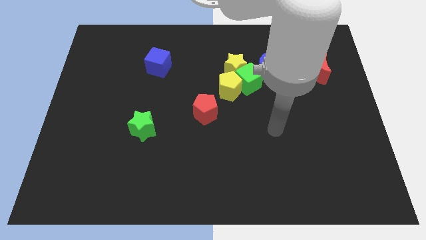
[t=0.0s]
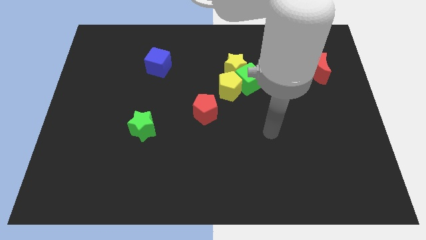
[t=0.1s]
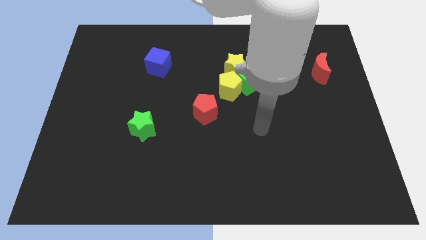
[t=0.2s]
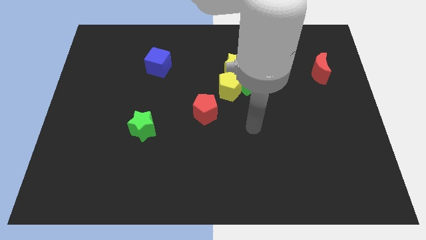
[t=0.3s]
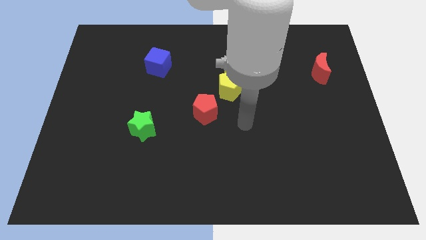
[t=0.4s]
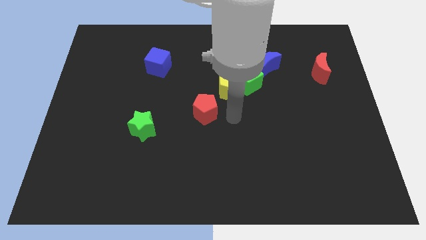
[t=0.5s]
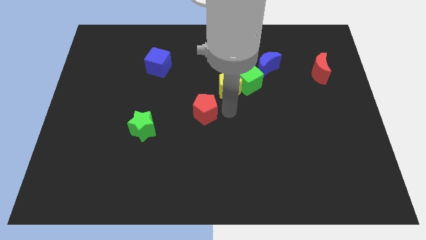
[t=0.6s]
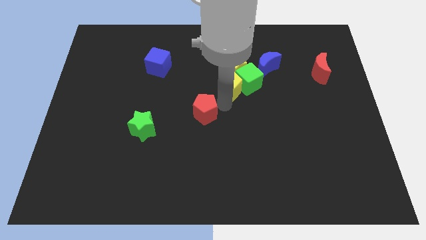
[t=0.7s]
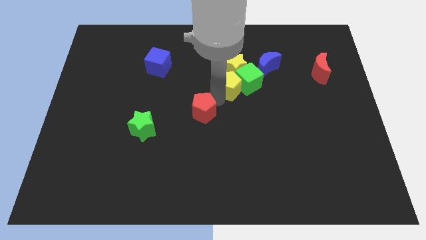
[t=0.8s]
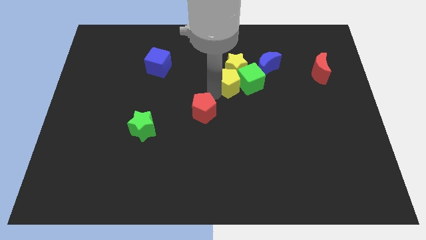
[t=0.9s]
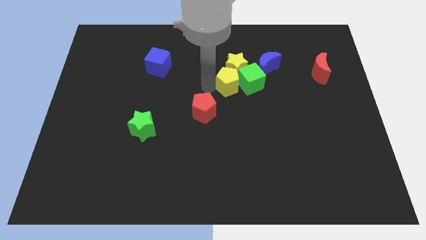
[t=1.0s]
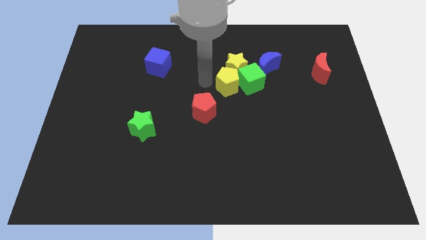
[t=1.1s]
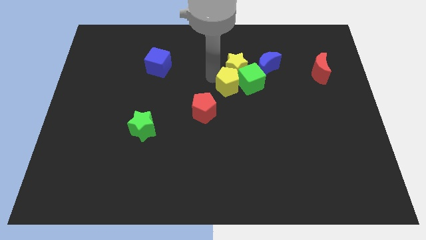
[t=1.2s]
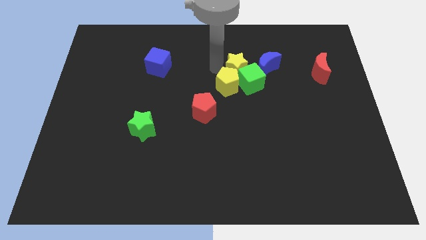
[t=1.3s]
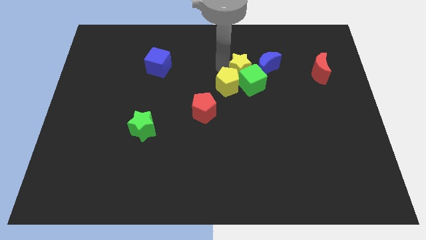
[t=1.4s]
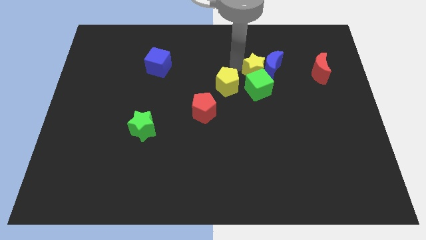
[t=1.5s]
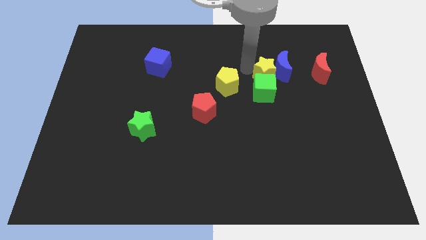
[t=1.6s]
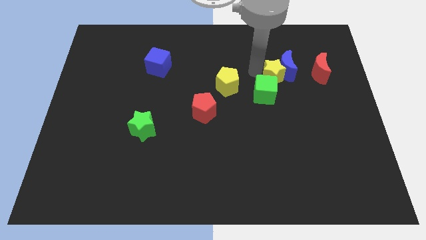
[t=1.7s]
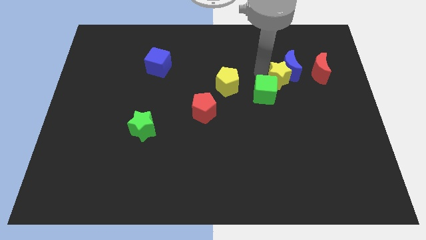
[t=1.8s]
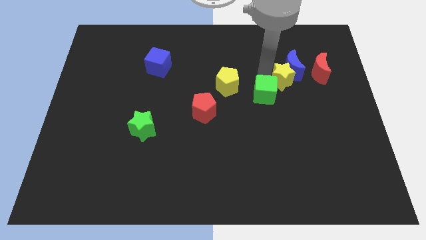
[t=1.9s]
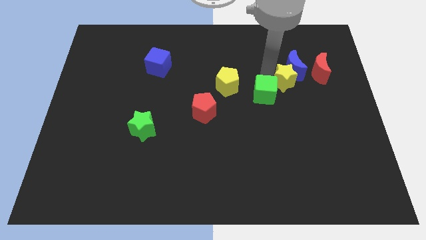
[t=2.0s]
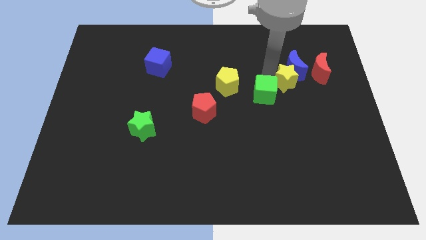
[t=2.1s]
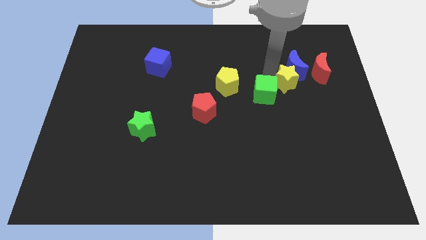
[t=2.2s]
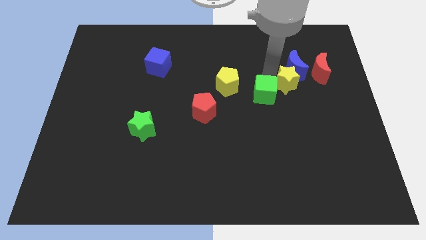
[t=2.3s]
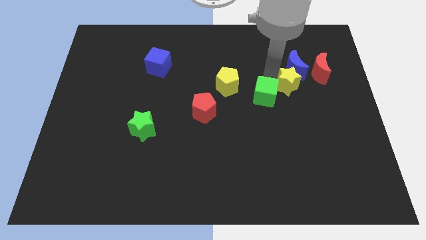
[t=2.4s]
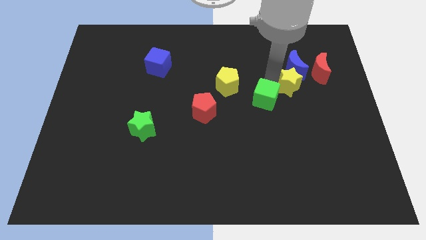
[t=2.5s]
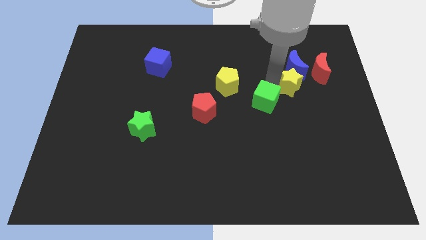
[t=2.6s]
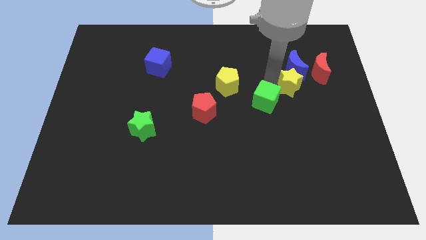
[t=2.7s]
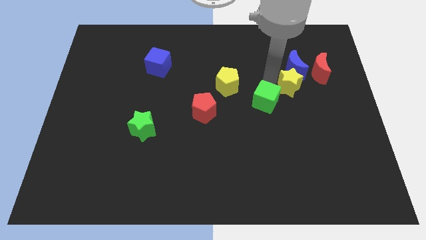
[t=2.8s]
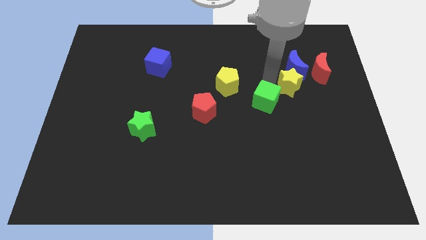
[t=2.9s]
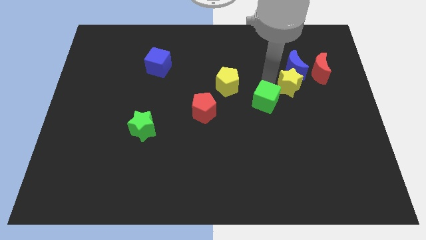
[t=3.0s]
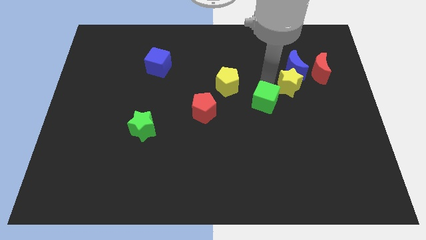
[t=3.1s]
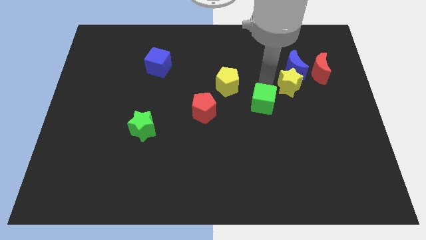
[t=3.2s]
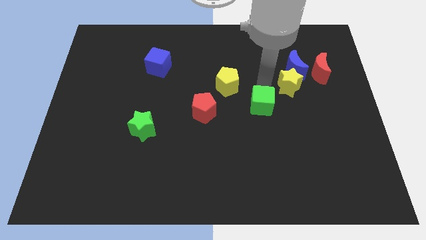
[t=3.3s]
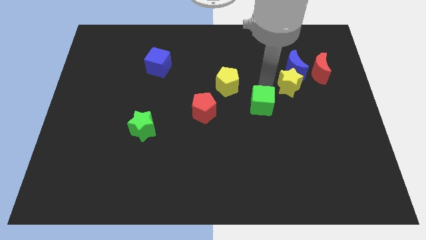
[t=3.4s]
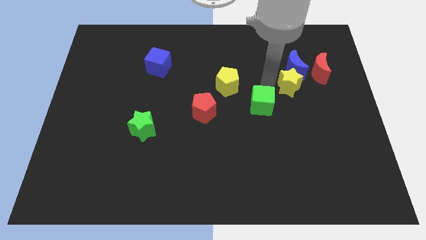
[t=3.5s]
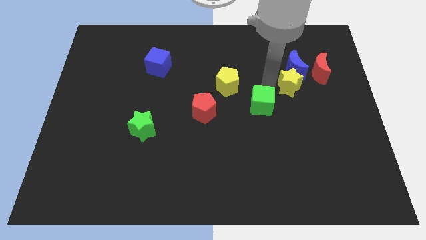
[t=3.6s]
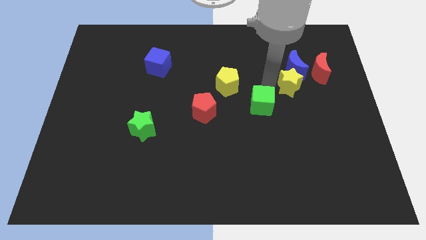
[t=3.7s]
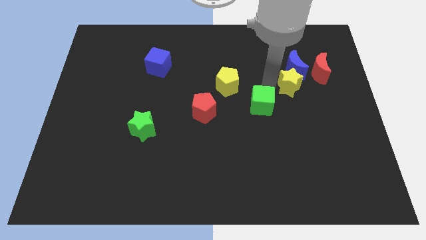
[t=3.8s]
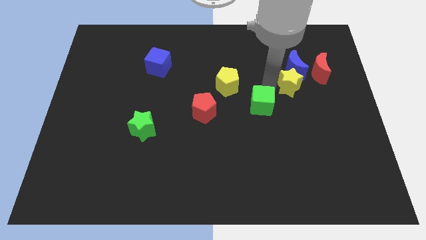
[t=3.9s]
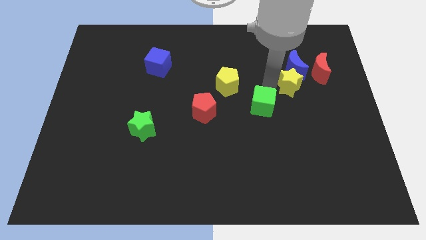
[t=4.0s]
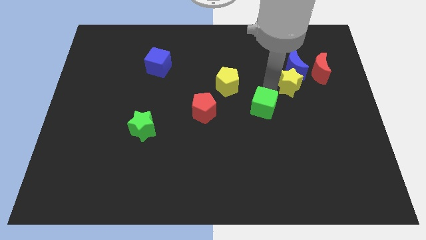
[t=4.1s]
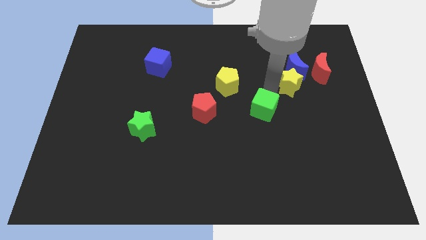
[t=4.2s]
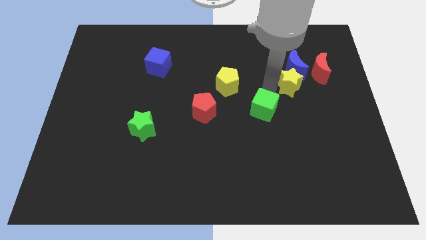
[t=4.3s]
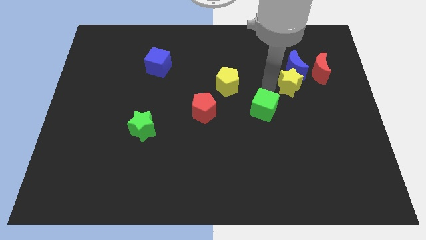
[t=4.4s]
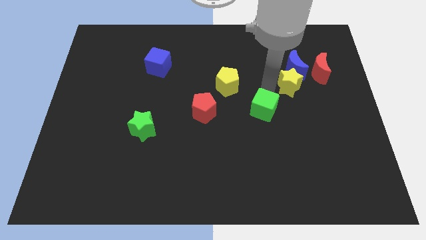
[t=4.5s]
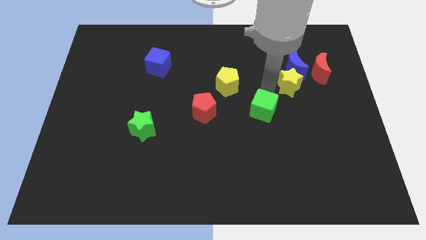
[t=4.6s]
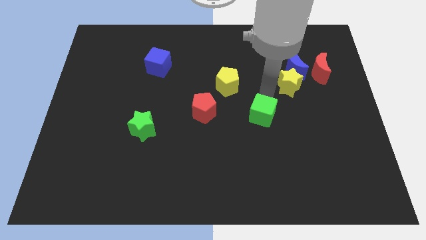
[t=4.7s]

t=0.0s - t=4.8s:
separate the green cube from the group

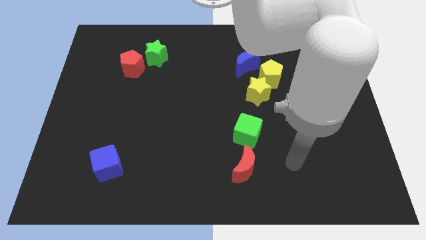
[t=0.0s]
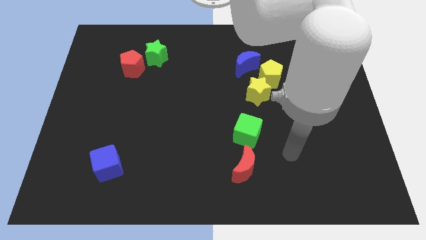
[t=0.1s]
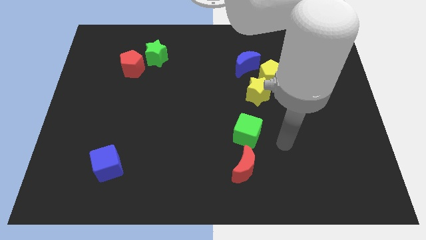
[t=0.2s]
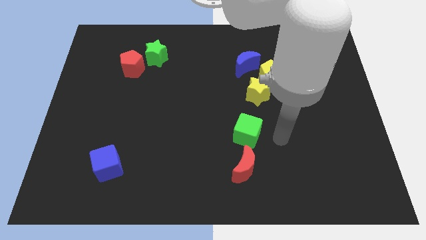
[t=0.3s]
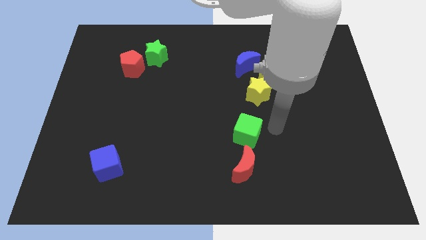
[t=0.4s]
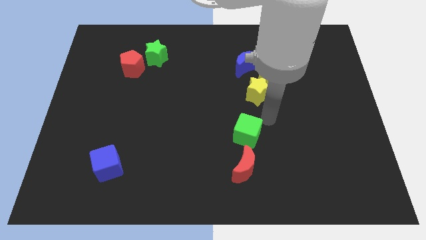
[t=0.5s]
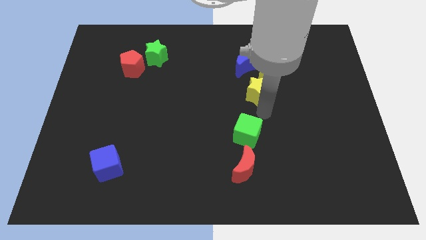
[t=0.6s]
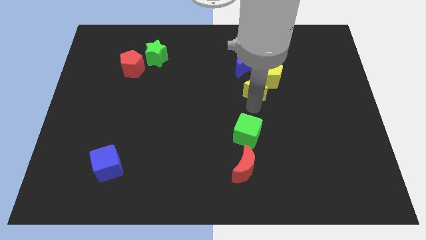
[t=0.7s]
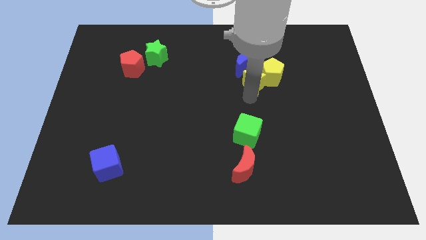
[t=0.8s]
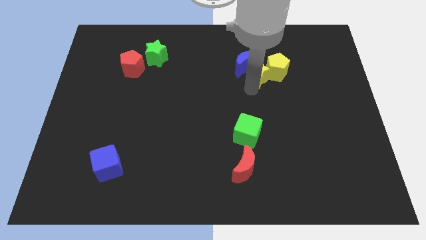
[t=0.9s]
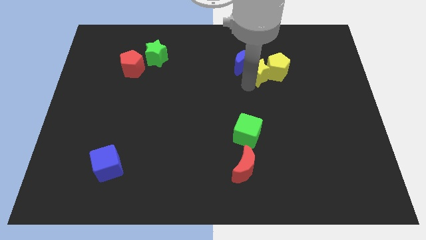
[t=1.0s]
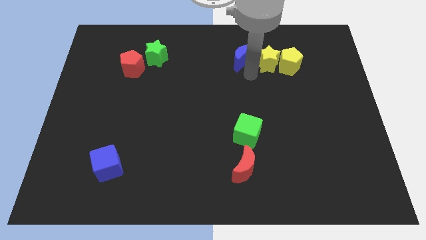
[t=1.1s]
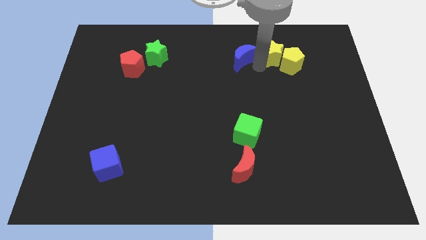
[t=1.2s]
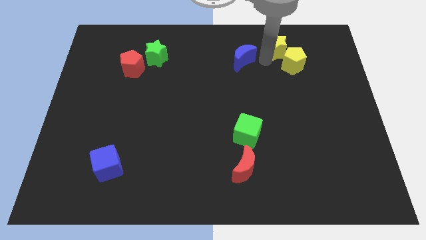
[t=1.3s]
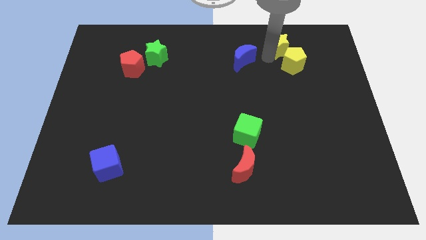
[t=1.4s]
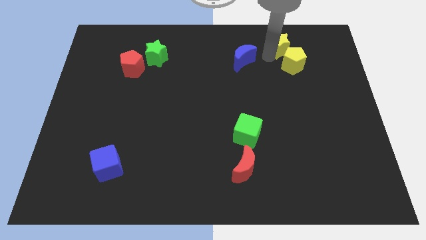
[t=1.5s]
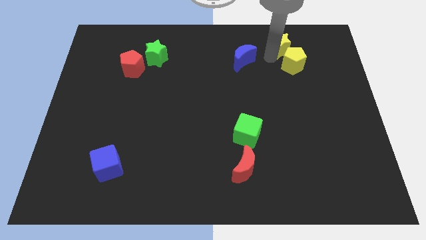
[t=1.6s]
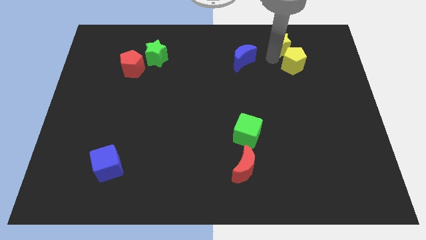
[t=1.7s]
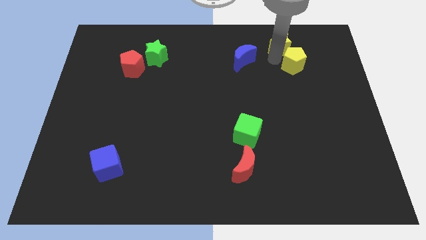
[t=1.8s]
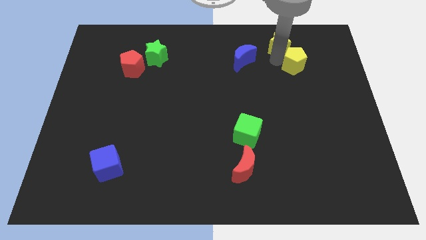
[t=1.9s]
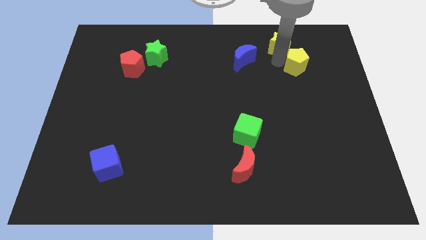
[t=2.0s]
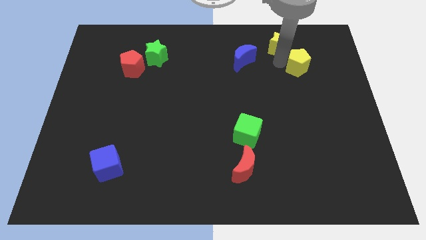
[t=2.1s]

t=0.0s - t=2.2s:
pull the yellow pentagon apart from the yellow star and blue moon

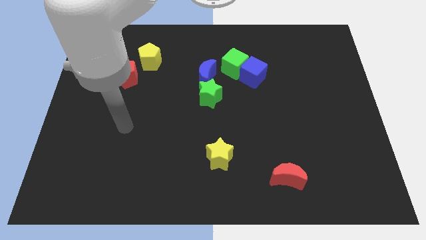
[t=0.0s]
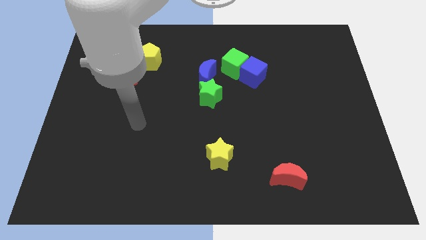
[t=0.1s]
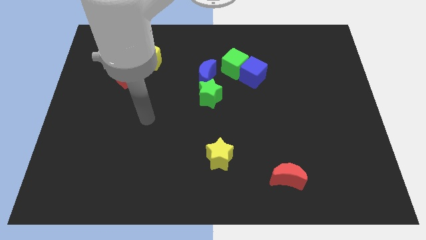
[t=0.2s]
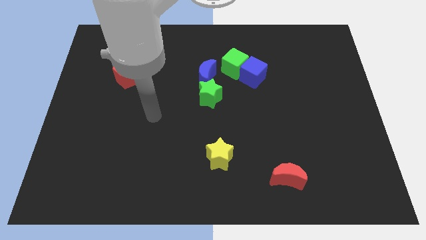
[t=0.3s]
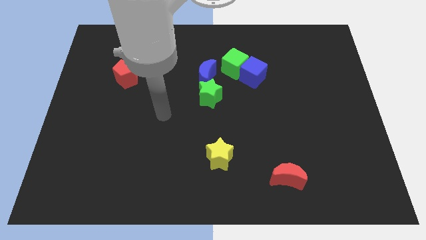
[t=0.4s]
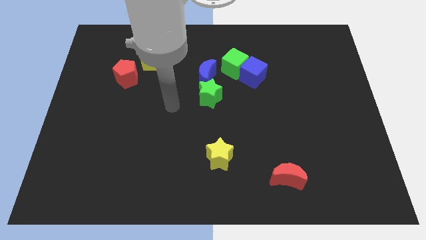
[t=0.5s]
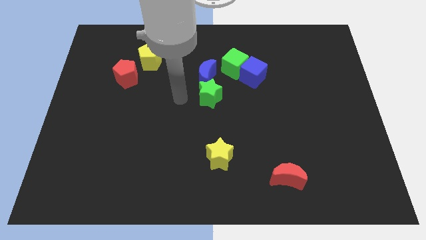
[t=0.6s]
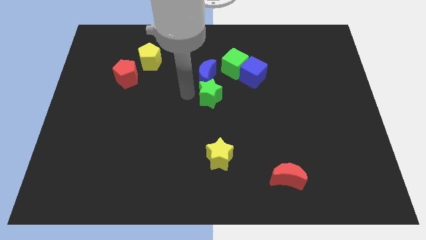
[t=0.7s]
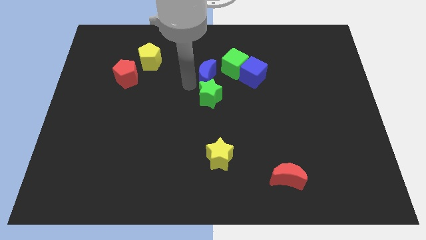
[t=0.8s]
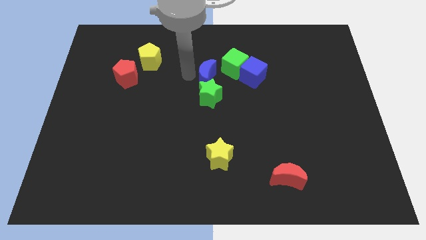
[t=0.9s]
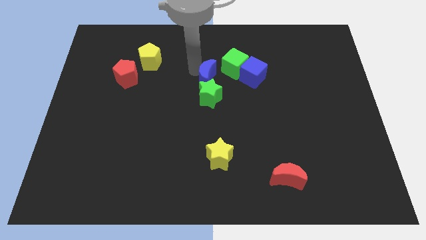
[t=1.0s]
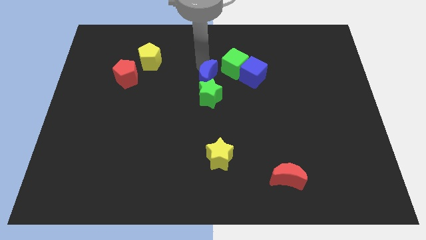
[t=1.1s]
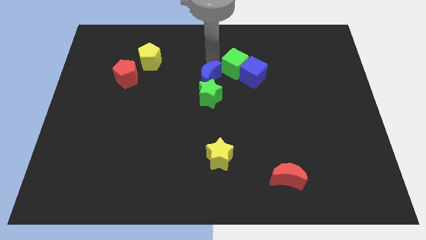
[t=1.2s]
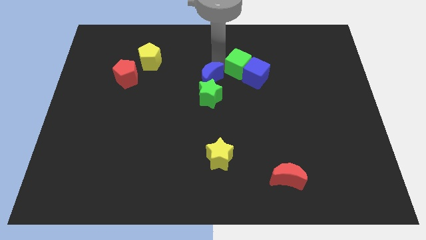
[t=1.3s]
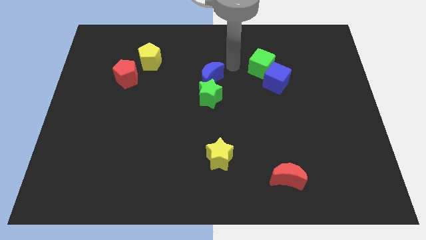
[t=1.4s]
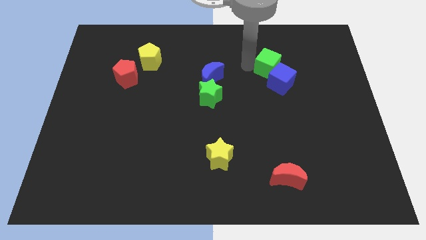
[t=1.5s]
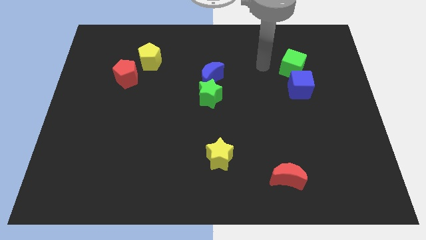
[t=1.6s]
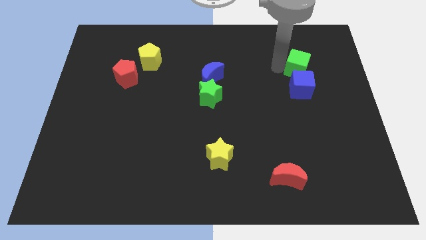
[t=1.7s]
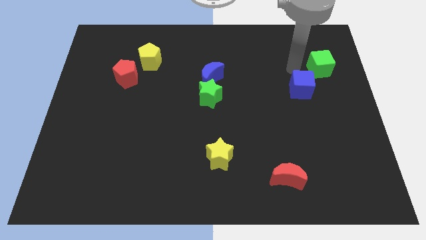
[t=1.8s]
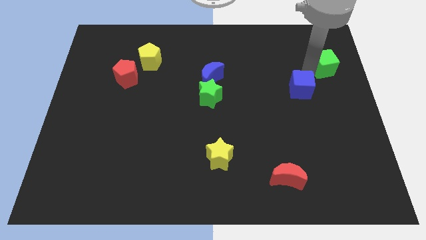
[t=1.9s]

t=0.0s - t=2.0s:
move the blue cube away from the green cube

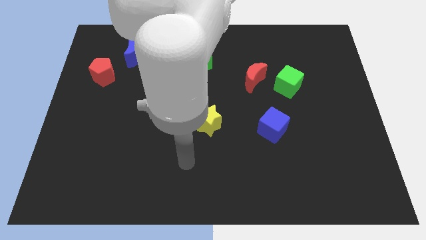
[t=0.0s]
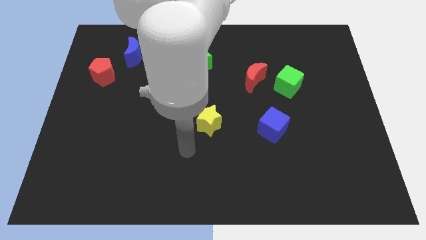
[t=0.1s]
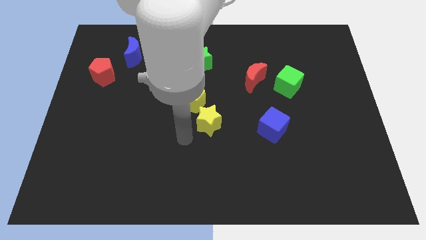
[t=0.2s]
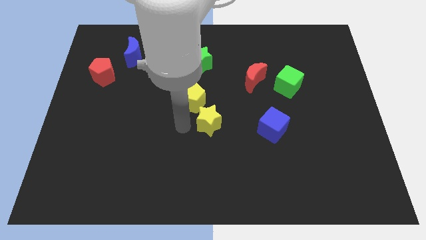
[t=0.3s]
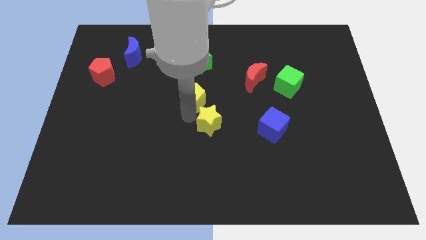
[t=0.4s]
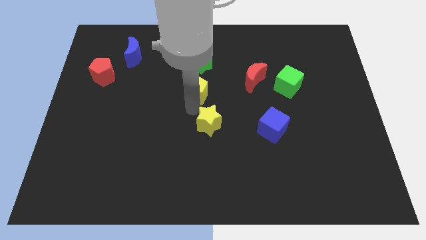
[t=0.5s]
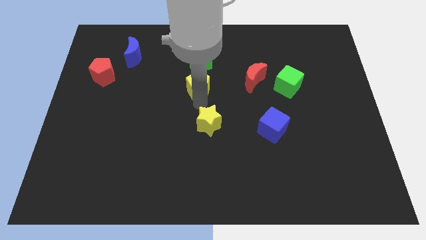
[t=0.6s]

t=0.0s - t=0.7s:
pull the yellow star apart from the yellow pentagon
